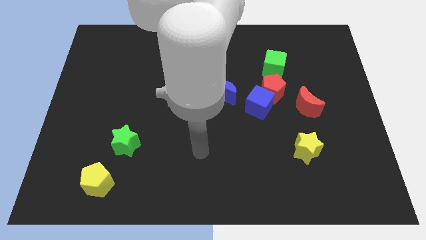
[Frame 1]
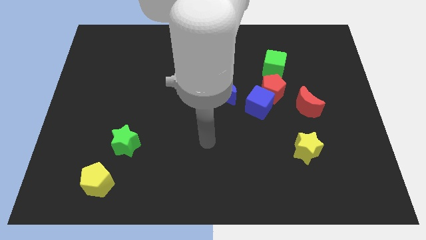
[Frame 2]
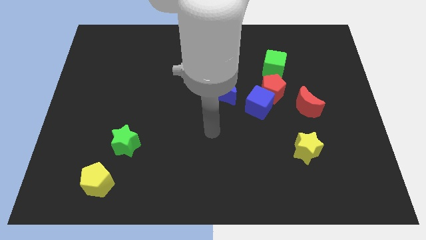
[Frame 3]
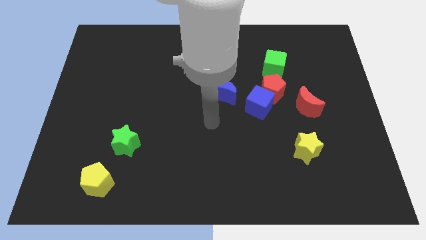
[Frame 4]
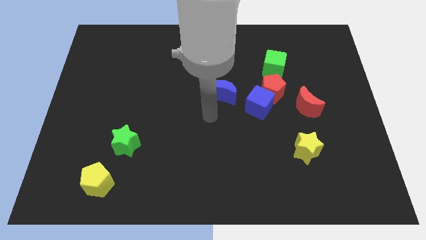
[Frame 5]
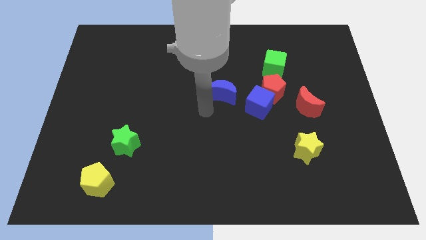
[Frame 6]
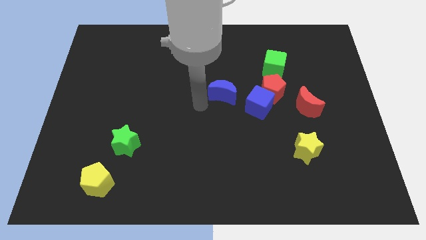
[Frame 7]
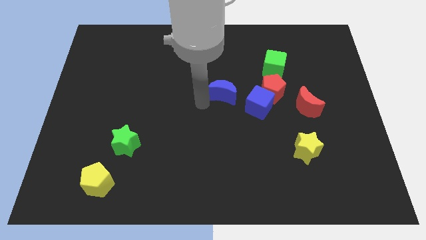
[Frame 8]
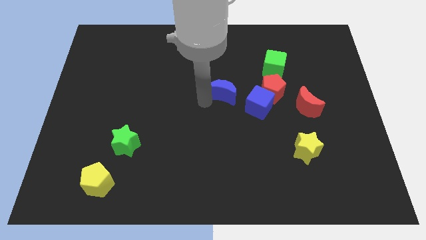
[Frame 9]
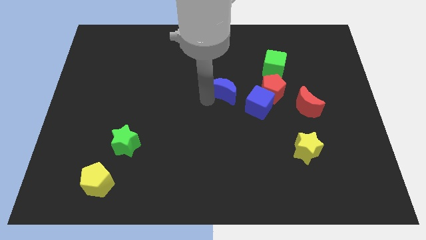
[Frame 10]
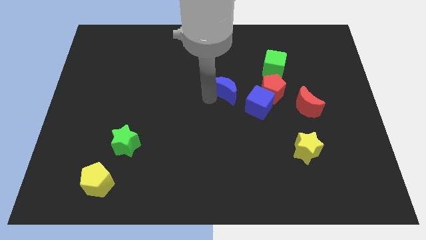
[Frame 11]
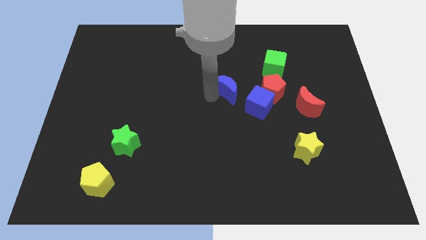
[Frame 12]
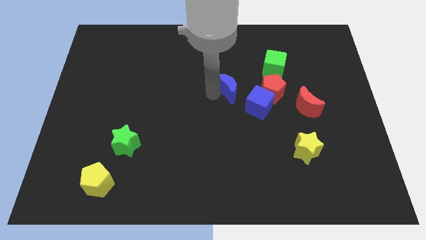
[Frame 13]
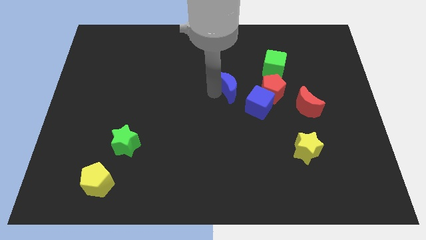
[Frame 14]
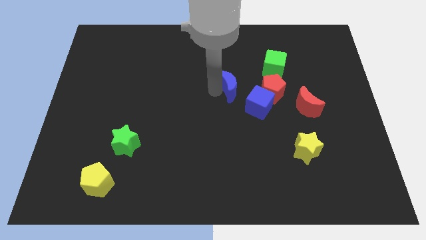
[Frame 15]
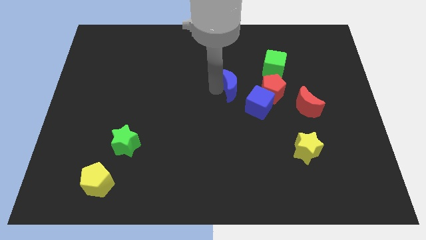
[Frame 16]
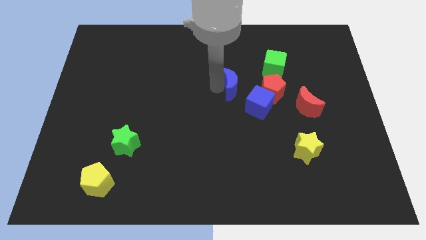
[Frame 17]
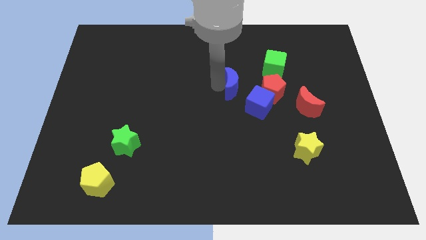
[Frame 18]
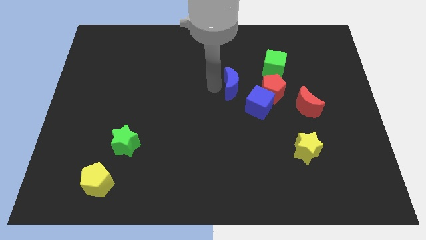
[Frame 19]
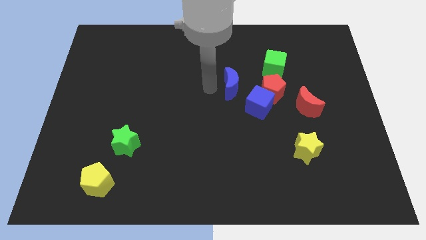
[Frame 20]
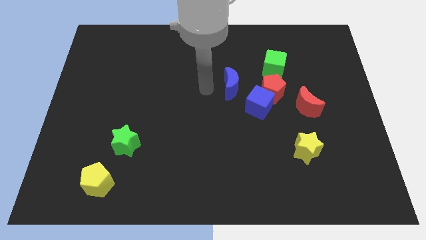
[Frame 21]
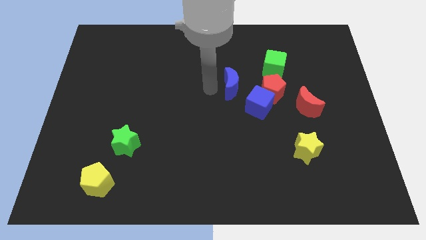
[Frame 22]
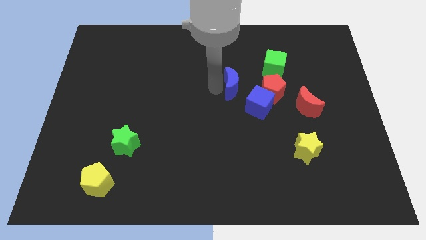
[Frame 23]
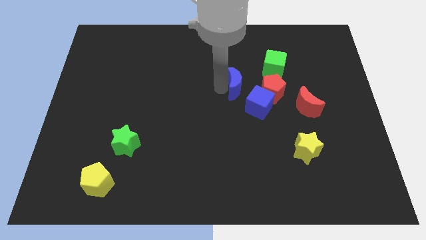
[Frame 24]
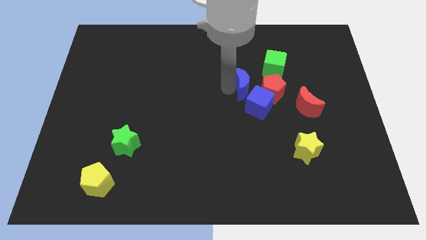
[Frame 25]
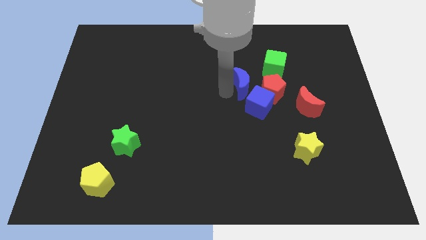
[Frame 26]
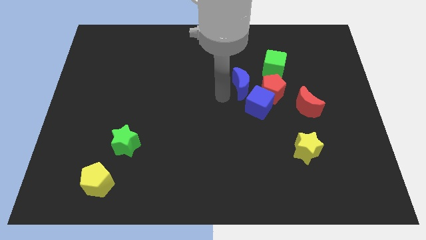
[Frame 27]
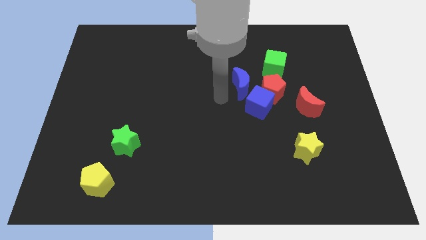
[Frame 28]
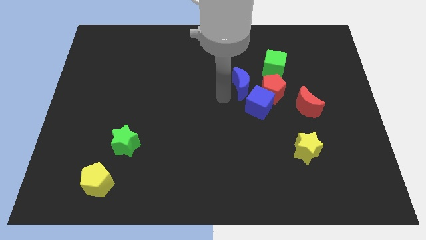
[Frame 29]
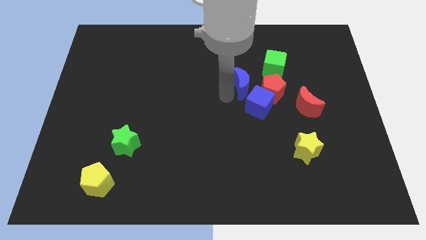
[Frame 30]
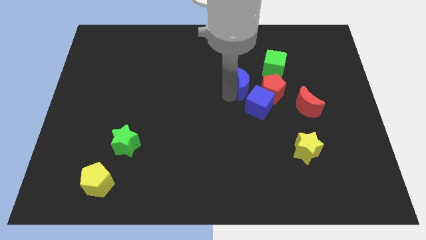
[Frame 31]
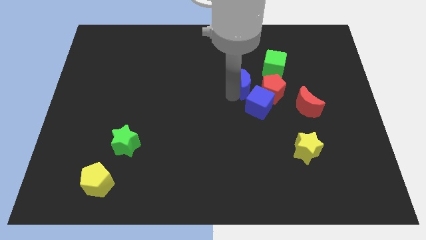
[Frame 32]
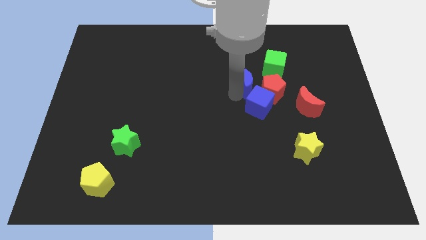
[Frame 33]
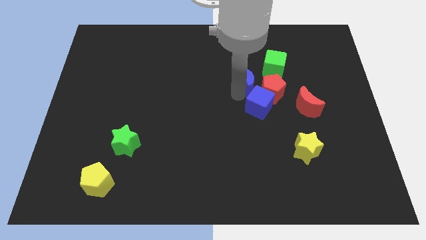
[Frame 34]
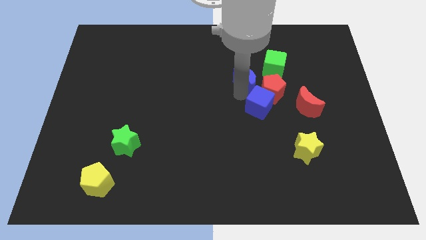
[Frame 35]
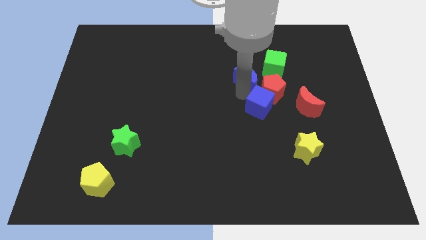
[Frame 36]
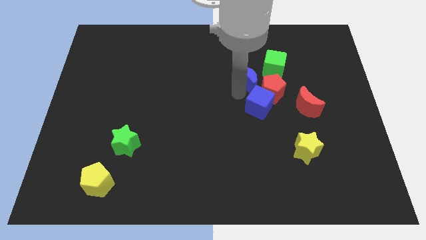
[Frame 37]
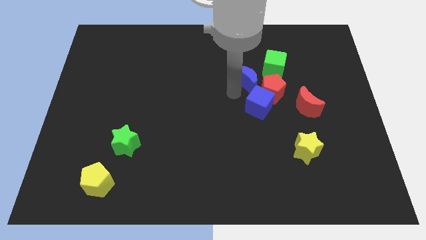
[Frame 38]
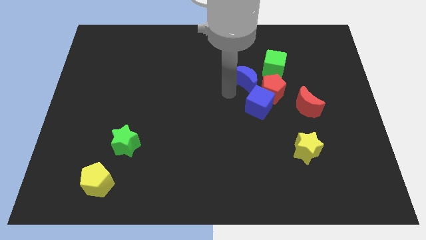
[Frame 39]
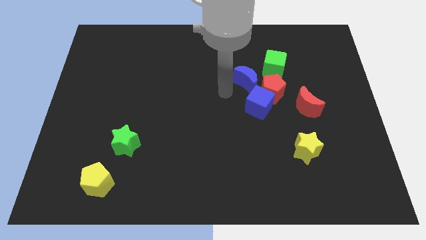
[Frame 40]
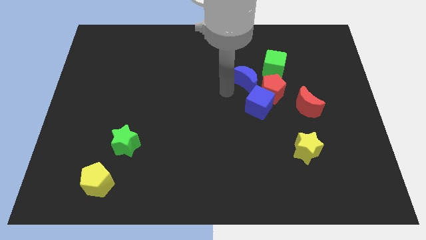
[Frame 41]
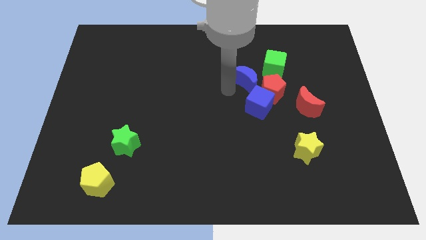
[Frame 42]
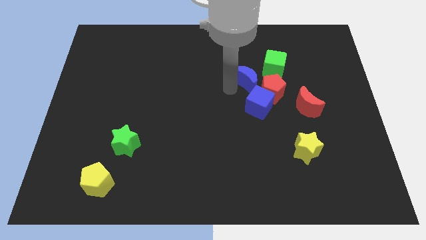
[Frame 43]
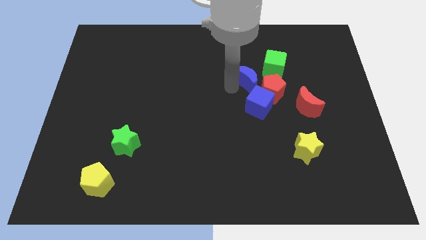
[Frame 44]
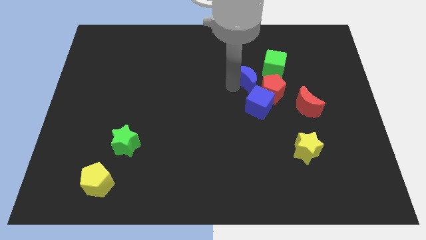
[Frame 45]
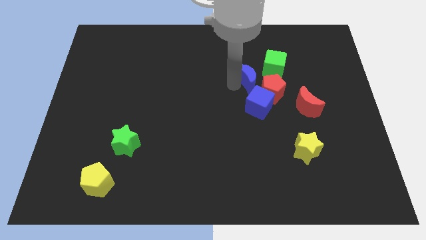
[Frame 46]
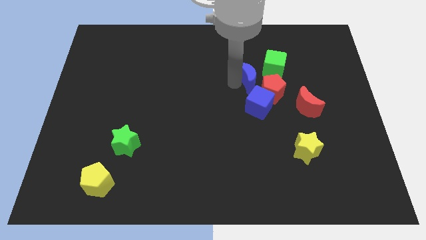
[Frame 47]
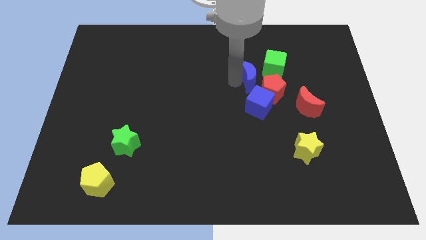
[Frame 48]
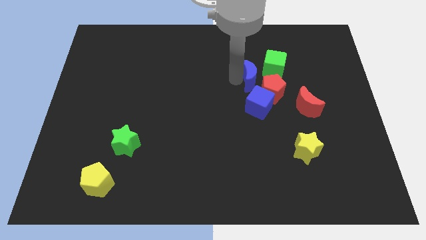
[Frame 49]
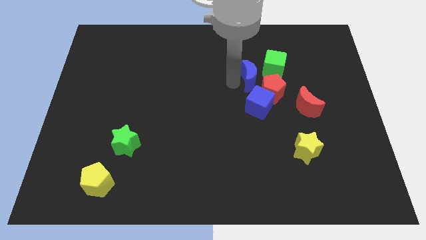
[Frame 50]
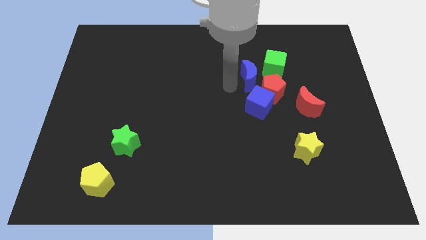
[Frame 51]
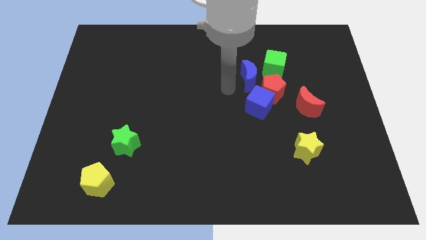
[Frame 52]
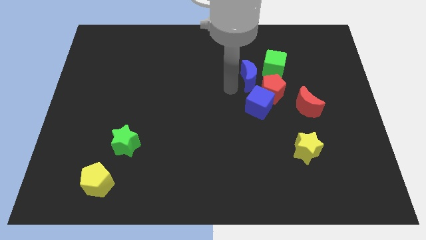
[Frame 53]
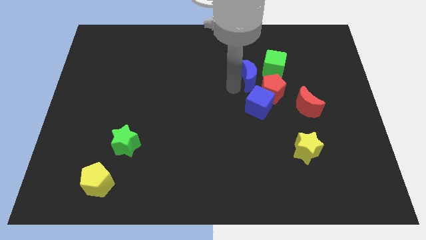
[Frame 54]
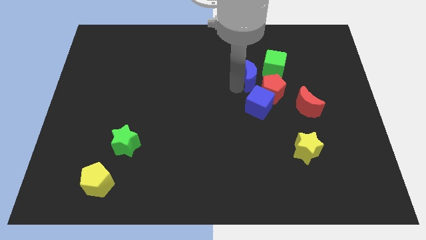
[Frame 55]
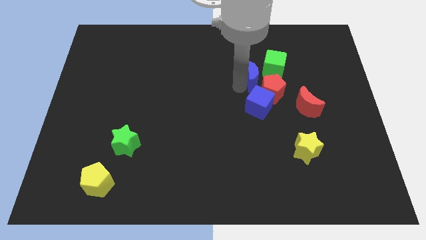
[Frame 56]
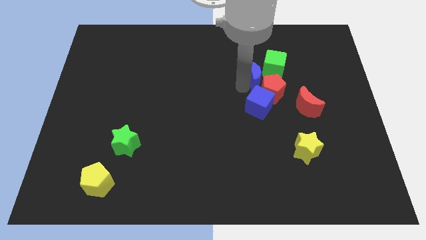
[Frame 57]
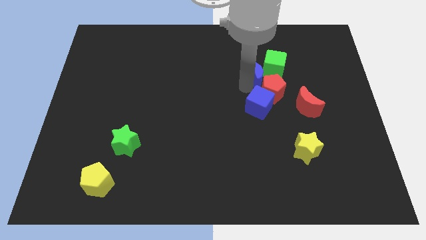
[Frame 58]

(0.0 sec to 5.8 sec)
slide the blue moon towards the green cube

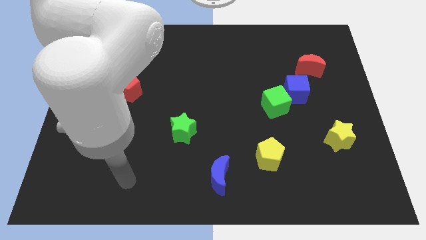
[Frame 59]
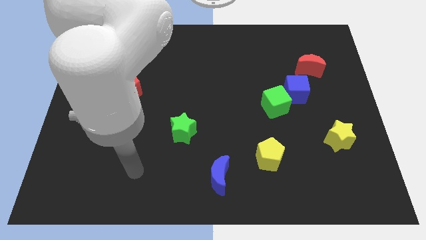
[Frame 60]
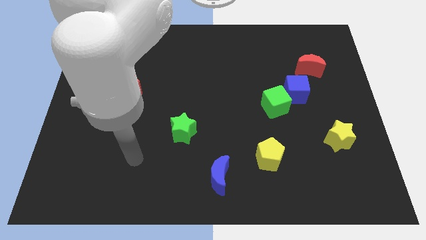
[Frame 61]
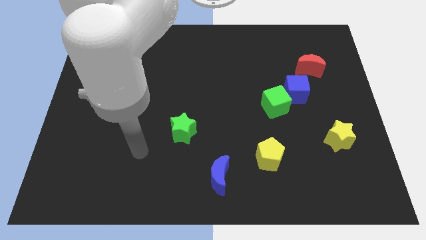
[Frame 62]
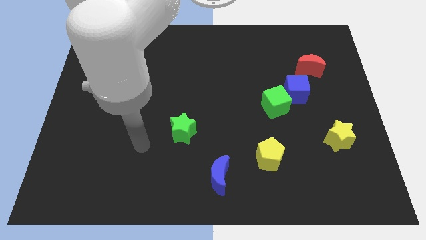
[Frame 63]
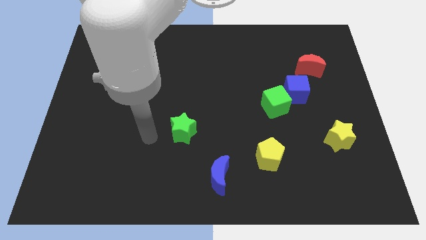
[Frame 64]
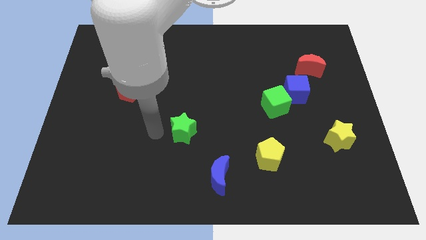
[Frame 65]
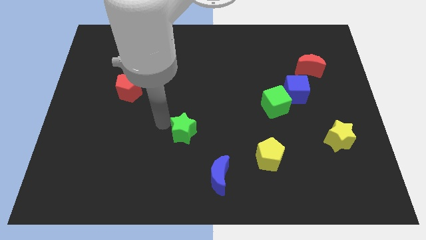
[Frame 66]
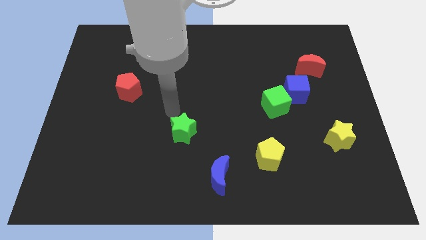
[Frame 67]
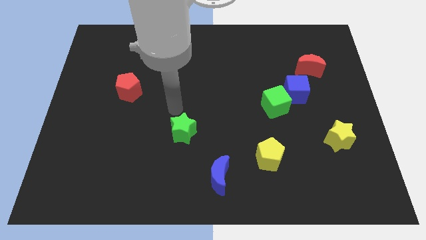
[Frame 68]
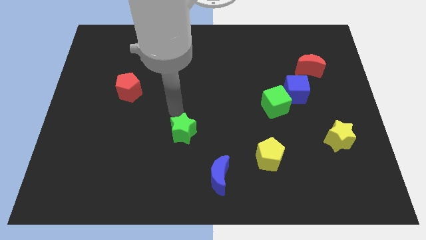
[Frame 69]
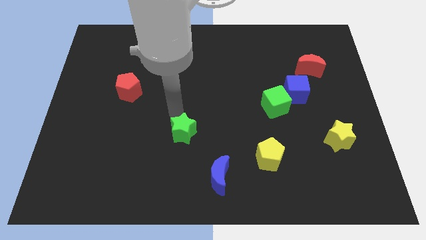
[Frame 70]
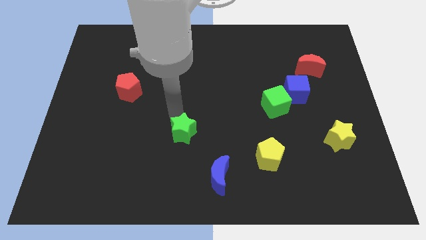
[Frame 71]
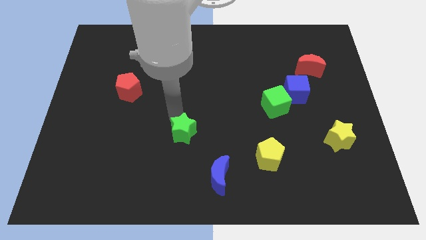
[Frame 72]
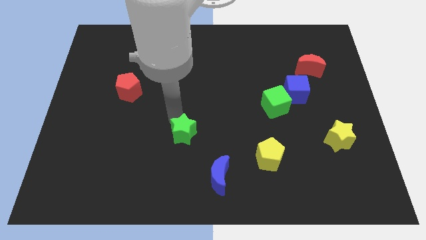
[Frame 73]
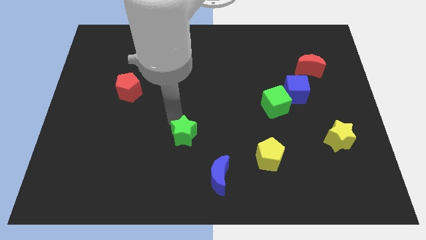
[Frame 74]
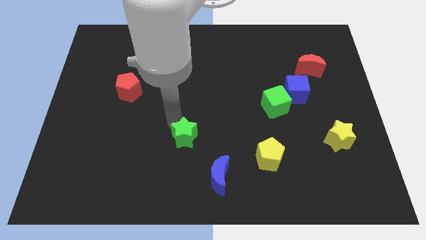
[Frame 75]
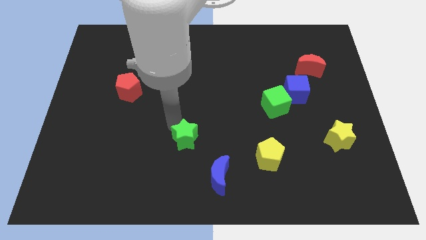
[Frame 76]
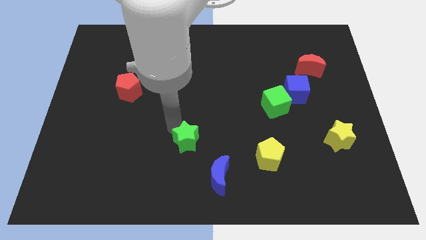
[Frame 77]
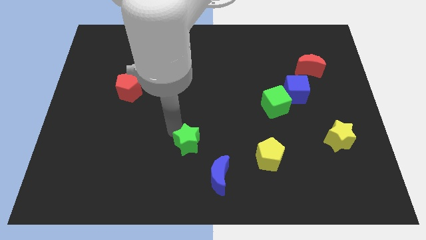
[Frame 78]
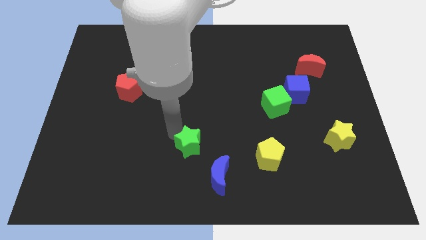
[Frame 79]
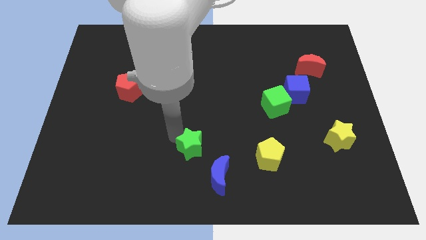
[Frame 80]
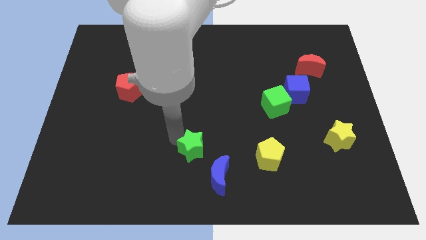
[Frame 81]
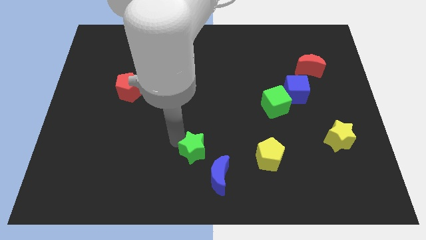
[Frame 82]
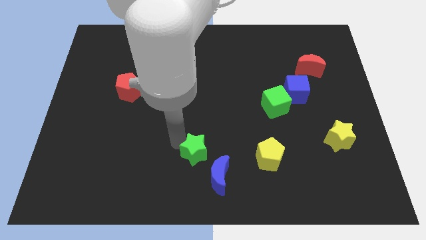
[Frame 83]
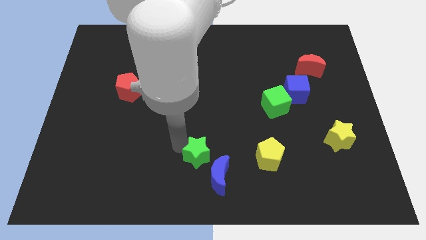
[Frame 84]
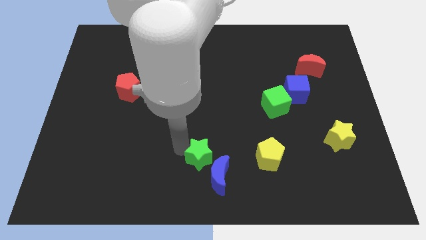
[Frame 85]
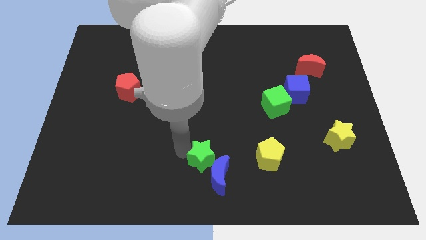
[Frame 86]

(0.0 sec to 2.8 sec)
push the green star to the blue moon
